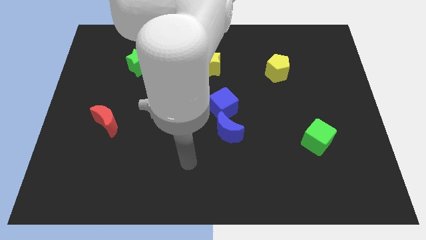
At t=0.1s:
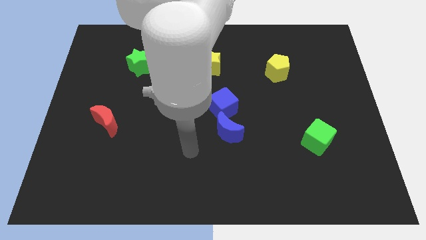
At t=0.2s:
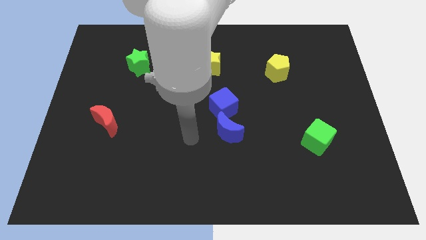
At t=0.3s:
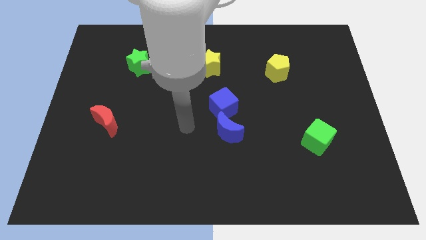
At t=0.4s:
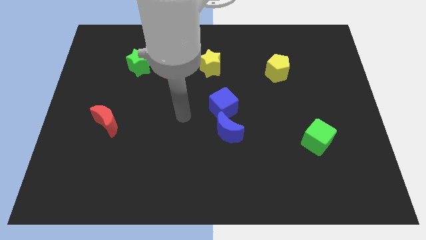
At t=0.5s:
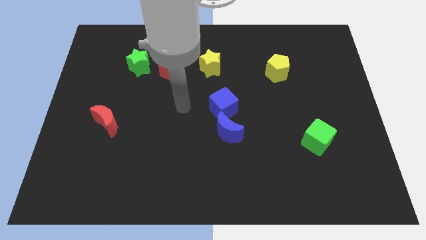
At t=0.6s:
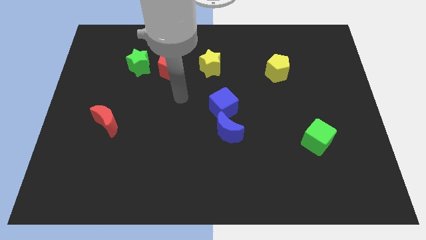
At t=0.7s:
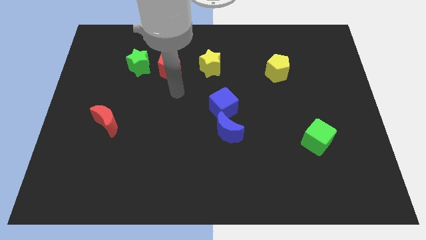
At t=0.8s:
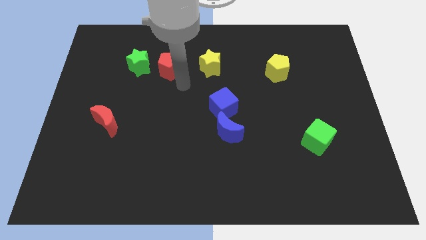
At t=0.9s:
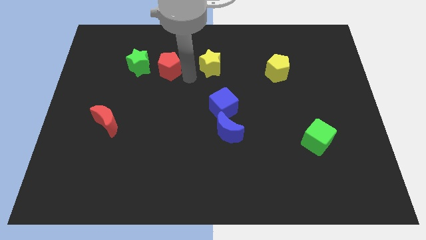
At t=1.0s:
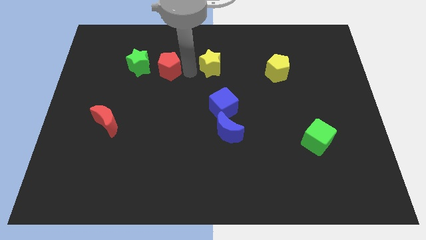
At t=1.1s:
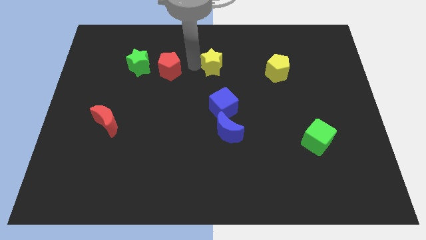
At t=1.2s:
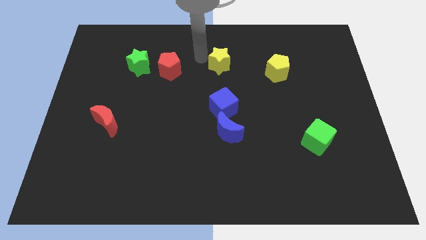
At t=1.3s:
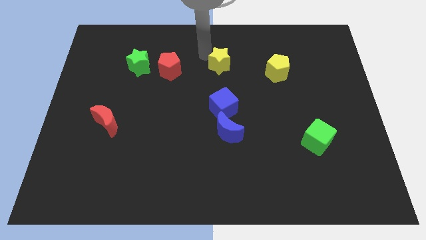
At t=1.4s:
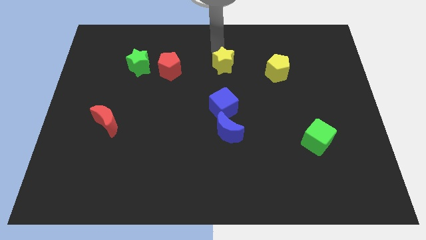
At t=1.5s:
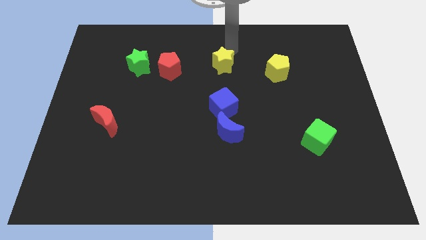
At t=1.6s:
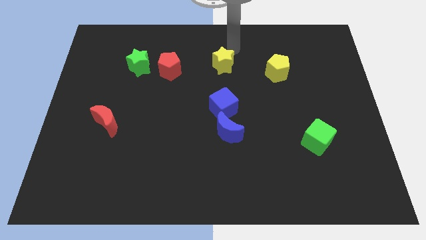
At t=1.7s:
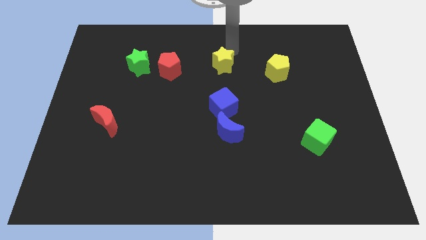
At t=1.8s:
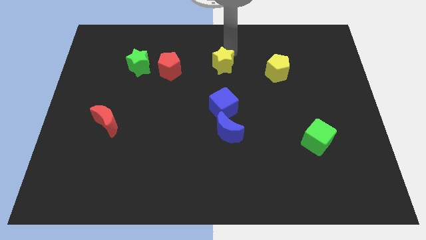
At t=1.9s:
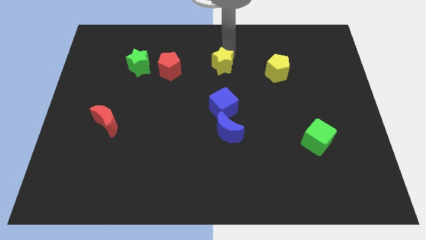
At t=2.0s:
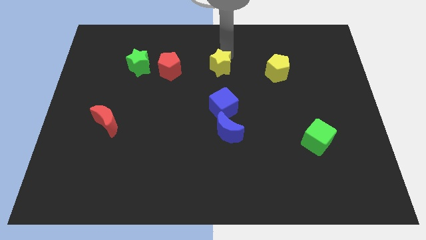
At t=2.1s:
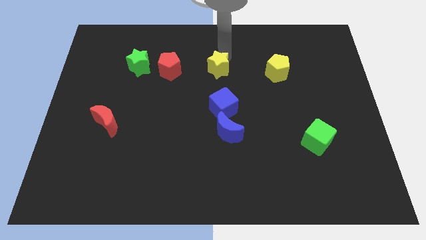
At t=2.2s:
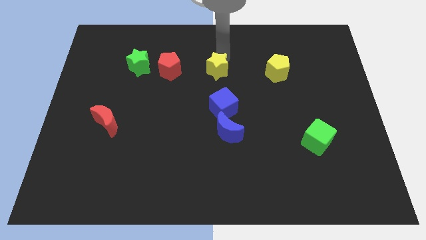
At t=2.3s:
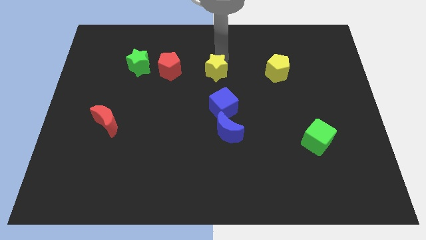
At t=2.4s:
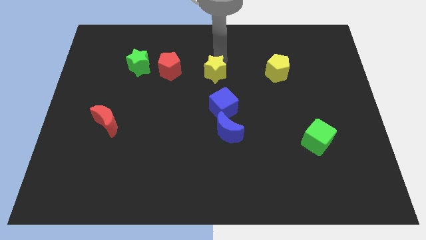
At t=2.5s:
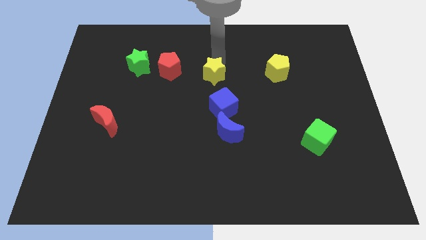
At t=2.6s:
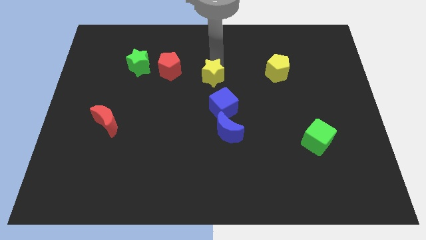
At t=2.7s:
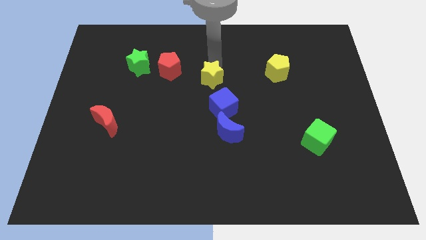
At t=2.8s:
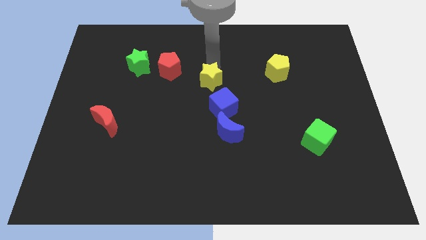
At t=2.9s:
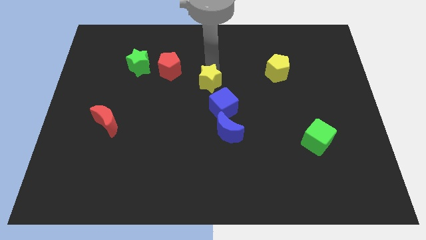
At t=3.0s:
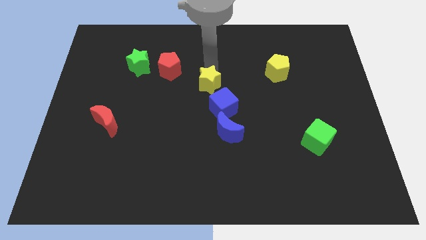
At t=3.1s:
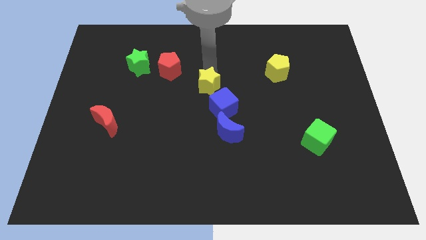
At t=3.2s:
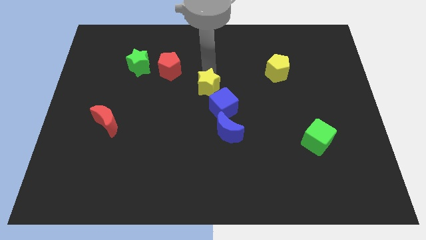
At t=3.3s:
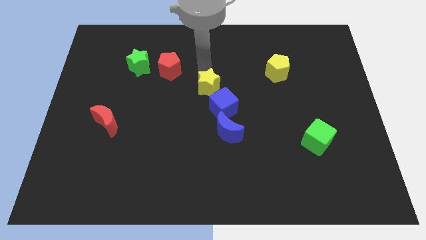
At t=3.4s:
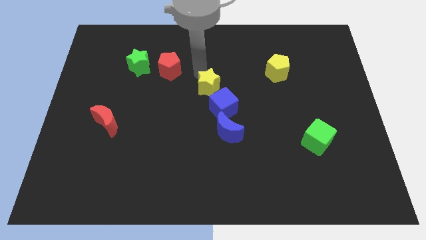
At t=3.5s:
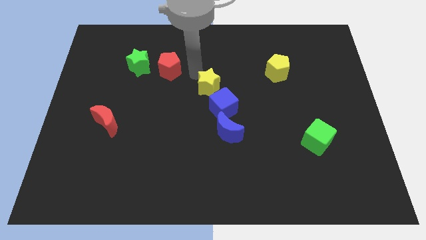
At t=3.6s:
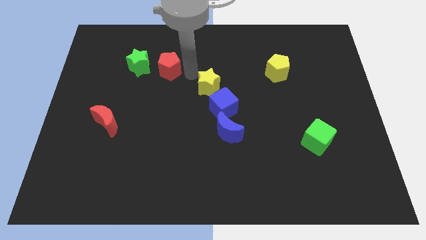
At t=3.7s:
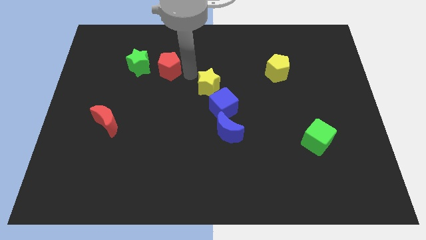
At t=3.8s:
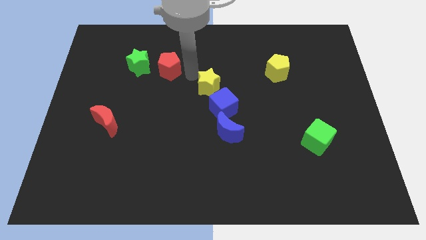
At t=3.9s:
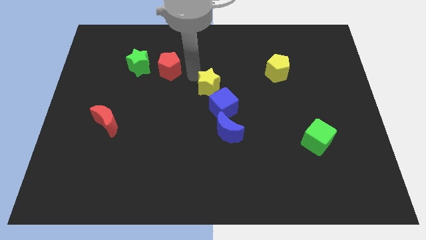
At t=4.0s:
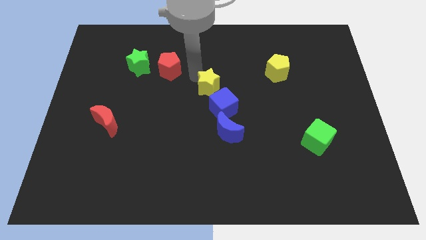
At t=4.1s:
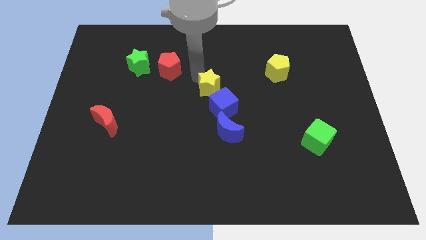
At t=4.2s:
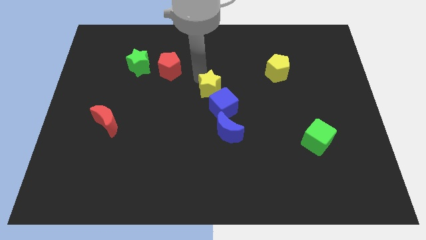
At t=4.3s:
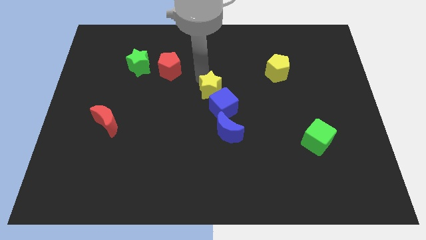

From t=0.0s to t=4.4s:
slide the yellow star towards the blue cube

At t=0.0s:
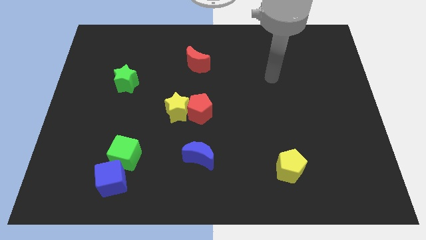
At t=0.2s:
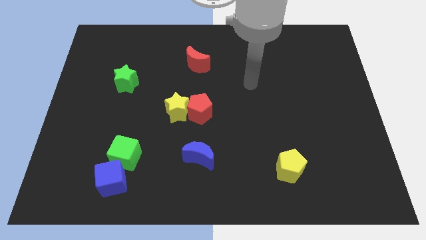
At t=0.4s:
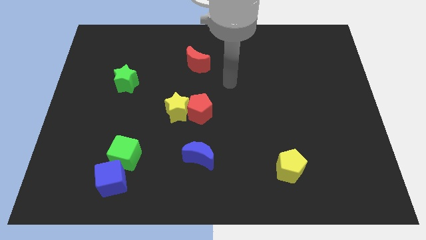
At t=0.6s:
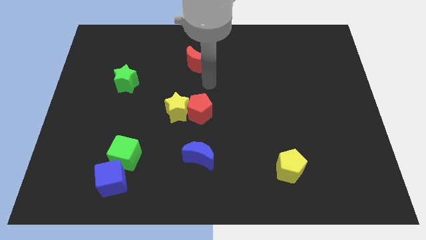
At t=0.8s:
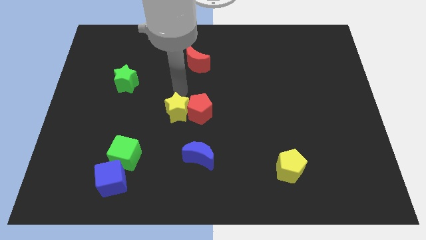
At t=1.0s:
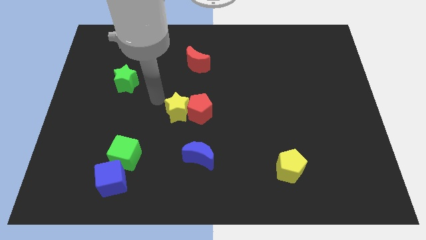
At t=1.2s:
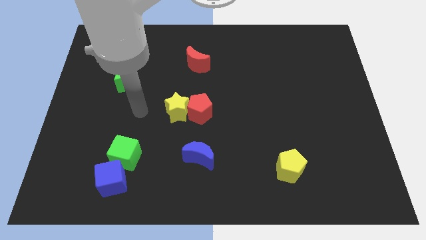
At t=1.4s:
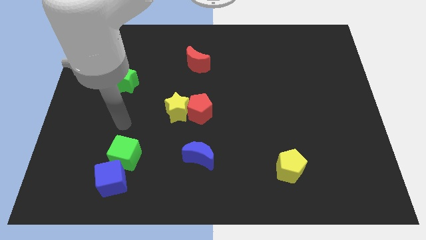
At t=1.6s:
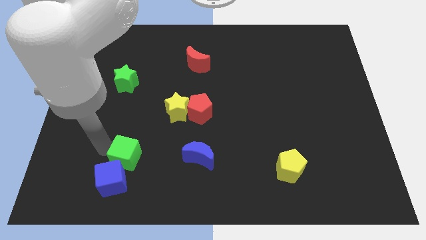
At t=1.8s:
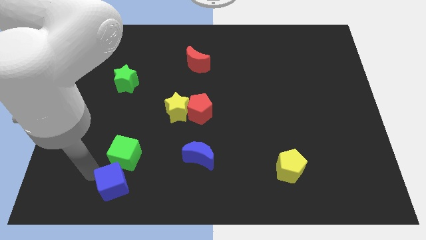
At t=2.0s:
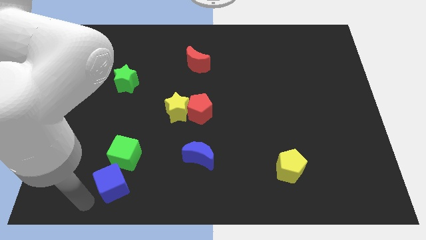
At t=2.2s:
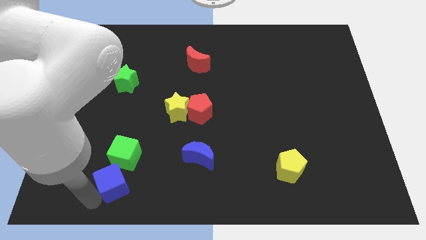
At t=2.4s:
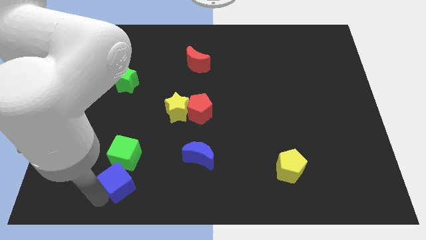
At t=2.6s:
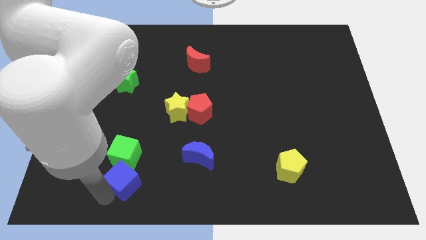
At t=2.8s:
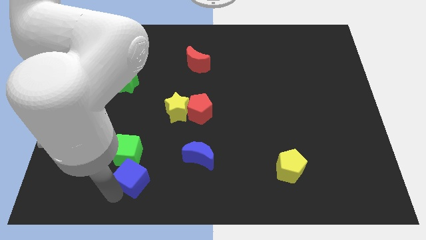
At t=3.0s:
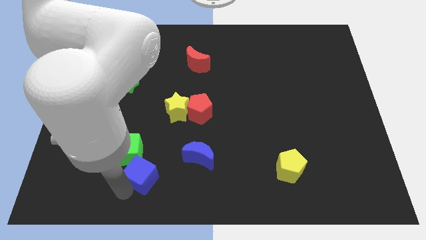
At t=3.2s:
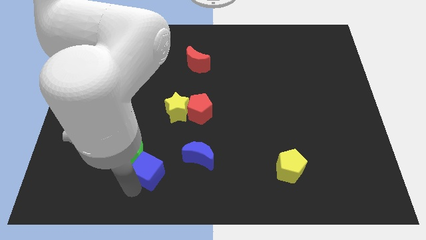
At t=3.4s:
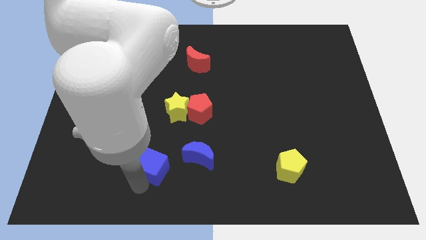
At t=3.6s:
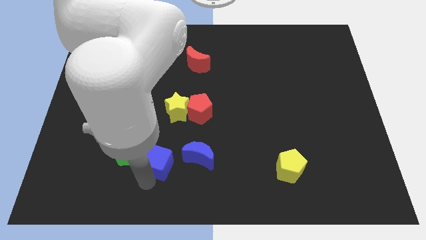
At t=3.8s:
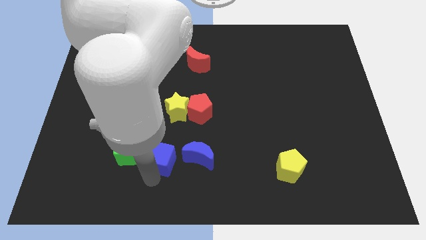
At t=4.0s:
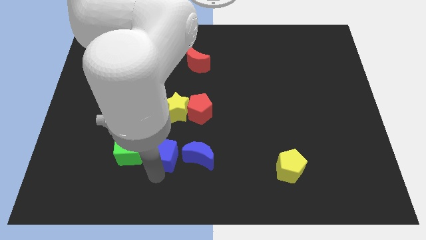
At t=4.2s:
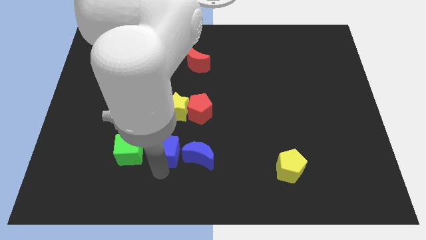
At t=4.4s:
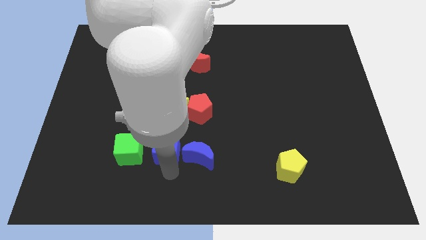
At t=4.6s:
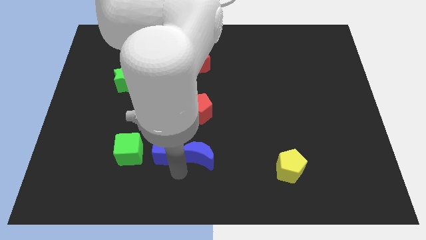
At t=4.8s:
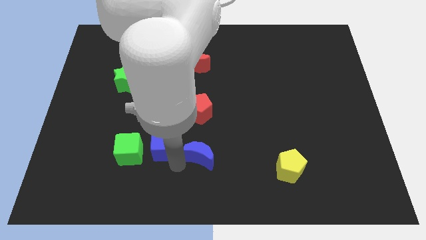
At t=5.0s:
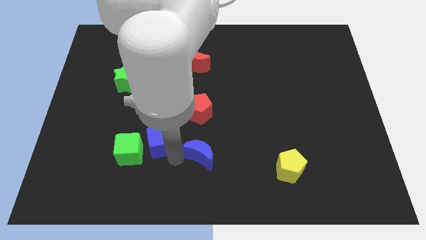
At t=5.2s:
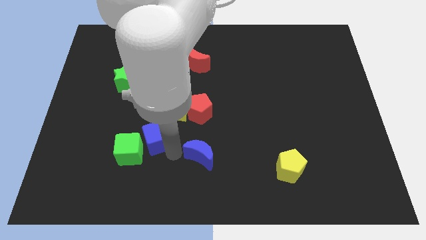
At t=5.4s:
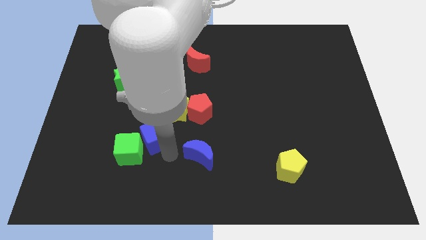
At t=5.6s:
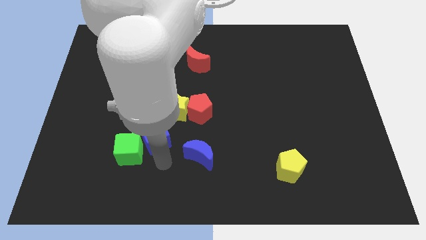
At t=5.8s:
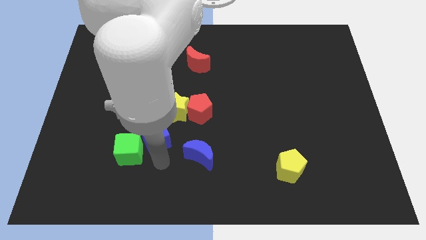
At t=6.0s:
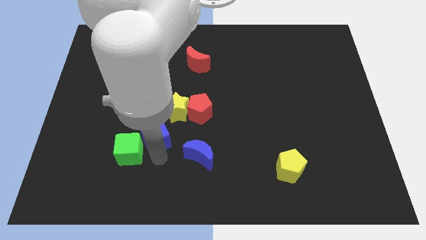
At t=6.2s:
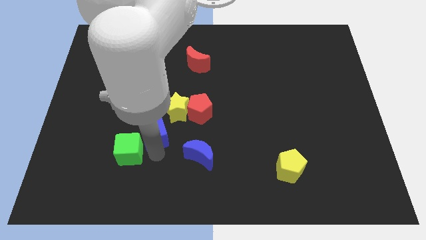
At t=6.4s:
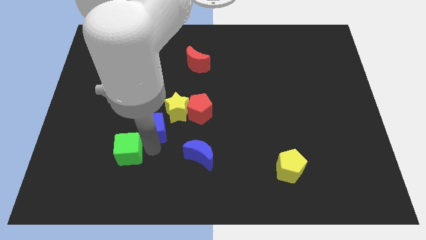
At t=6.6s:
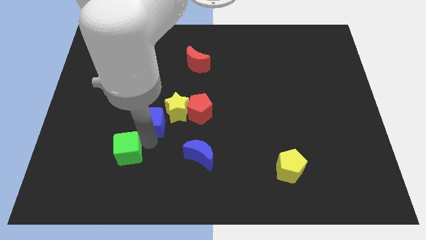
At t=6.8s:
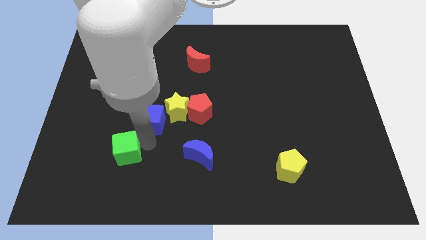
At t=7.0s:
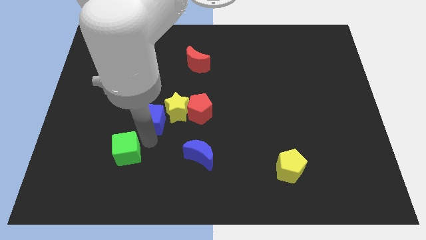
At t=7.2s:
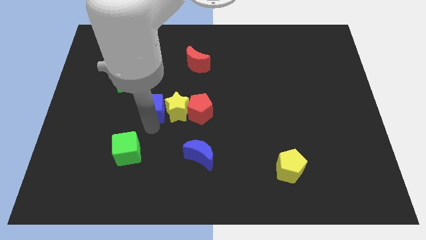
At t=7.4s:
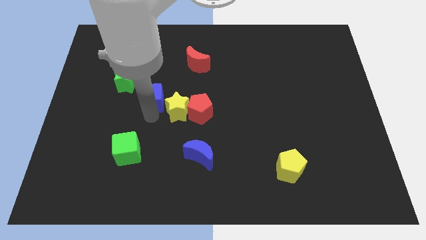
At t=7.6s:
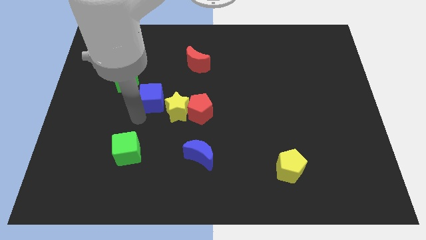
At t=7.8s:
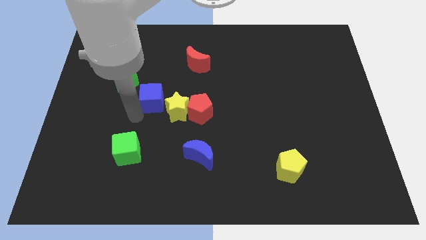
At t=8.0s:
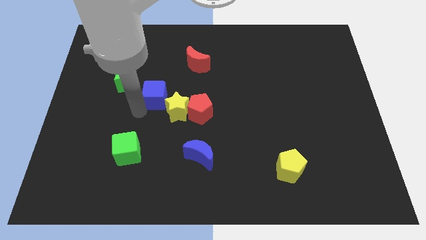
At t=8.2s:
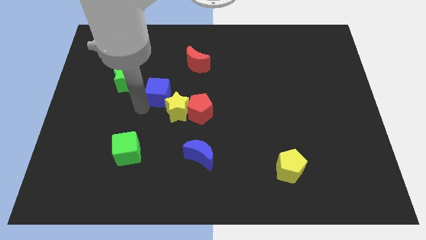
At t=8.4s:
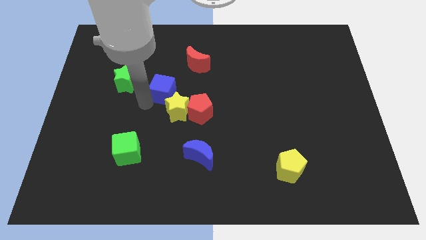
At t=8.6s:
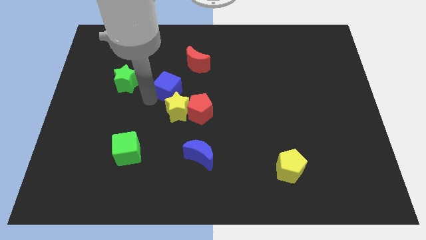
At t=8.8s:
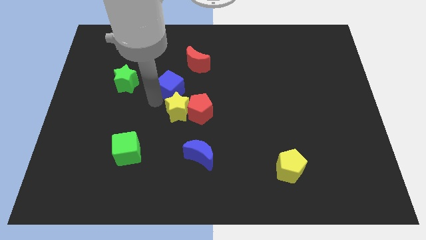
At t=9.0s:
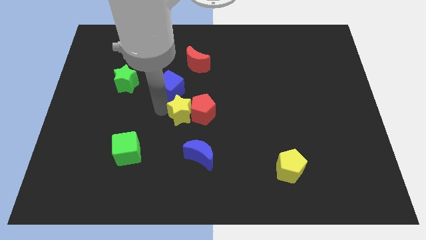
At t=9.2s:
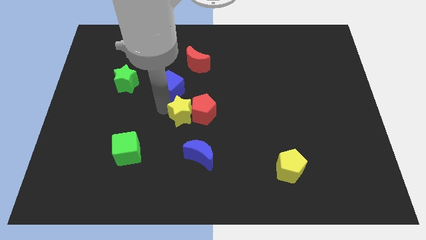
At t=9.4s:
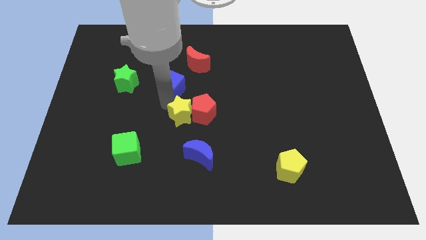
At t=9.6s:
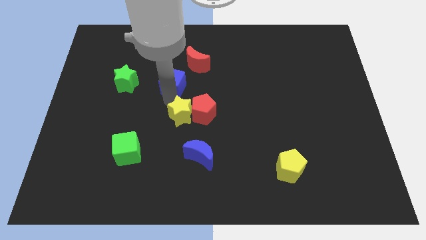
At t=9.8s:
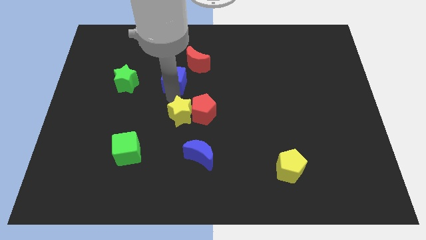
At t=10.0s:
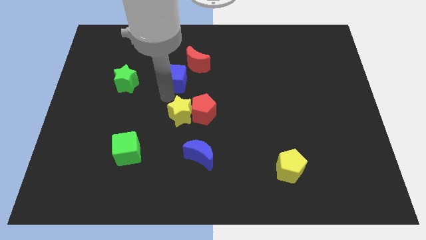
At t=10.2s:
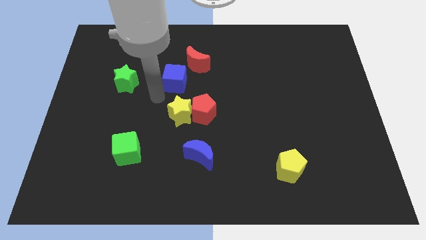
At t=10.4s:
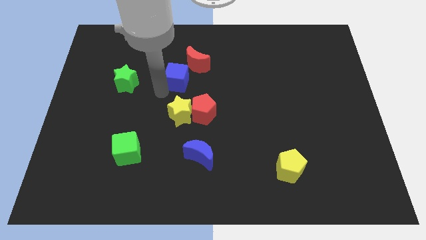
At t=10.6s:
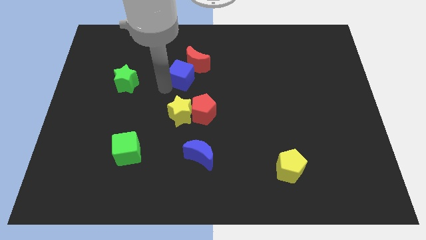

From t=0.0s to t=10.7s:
put the blue cube to the red moon
